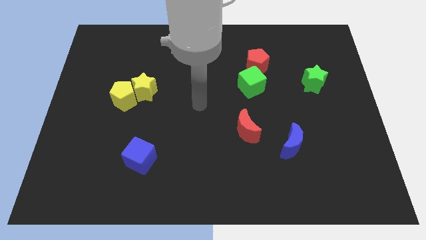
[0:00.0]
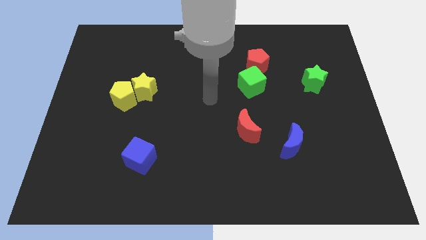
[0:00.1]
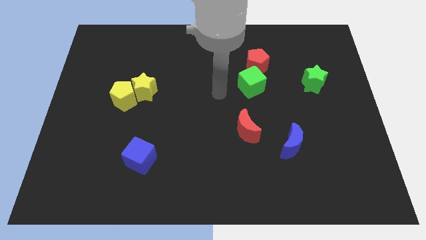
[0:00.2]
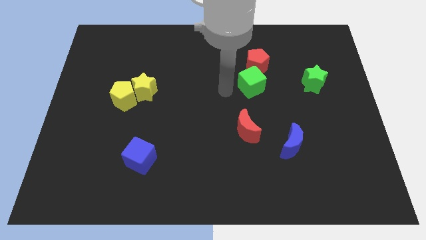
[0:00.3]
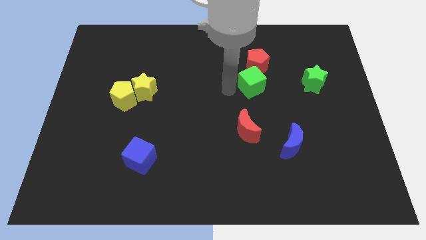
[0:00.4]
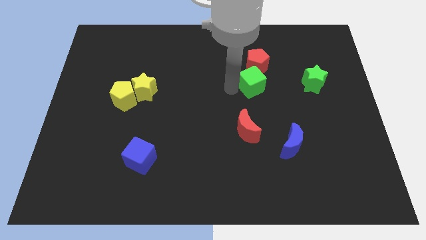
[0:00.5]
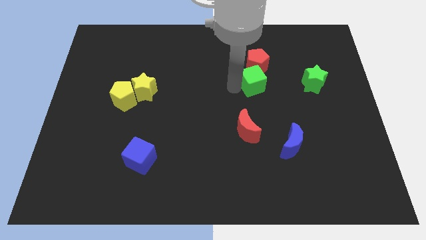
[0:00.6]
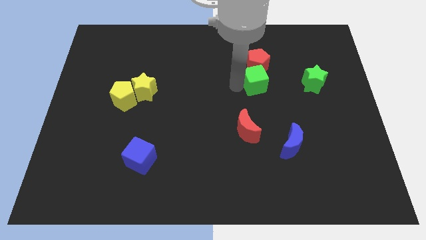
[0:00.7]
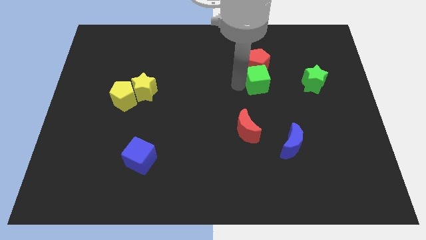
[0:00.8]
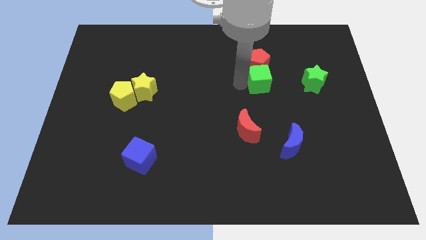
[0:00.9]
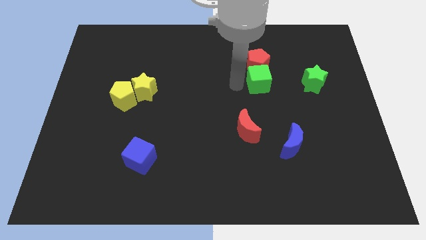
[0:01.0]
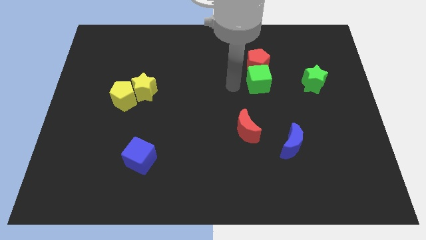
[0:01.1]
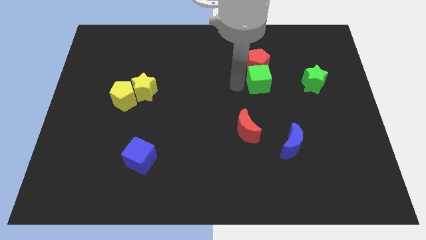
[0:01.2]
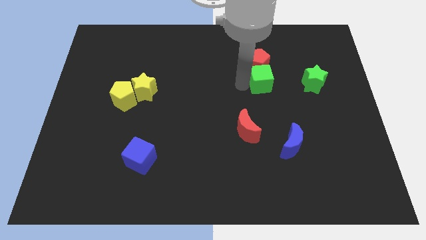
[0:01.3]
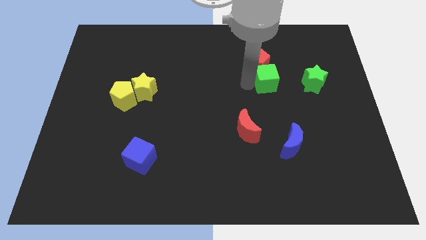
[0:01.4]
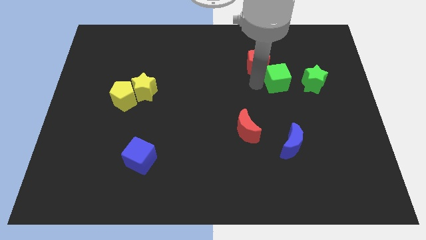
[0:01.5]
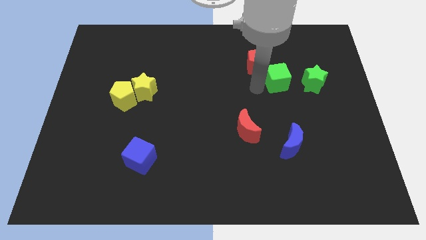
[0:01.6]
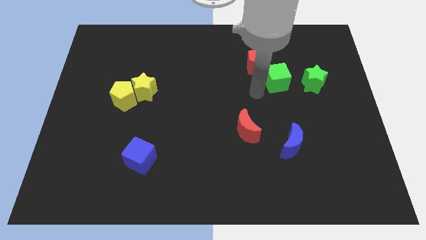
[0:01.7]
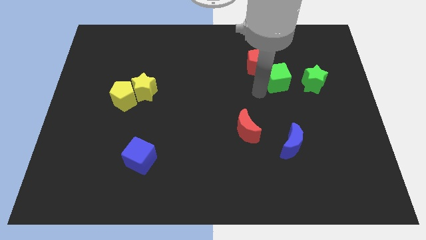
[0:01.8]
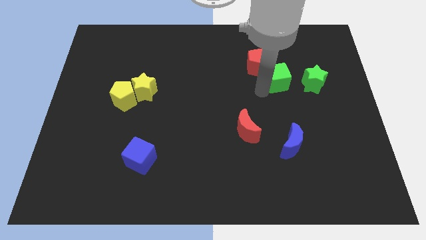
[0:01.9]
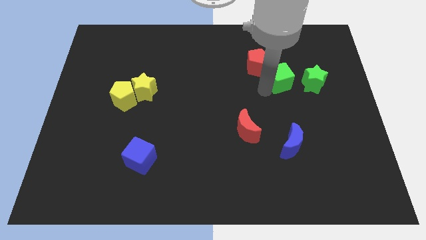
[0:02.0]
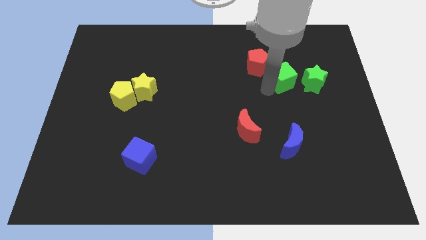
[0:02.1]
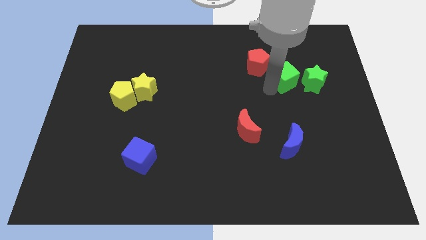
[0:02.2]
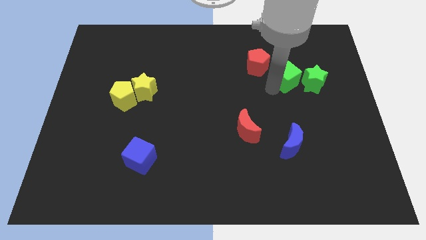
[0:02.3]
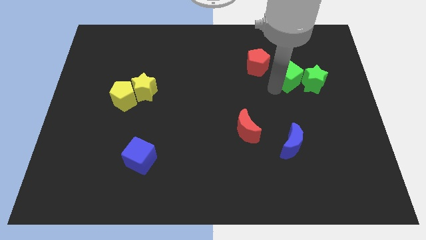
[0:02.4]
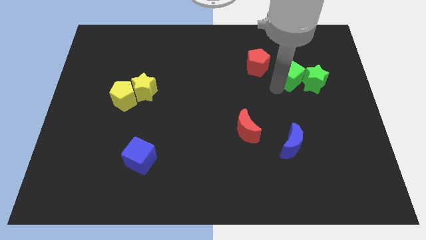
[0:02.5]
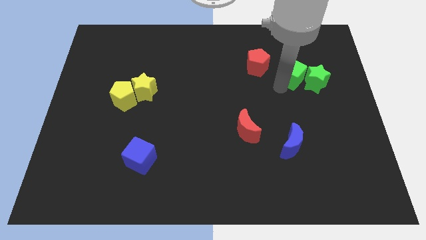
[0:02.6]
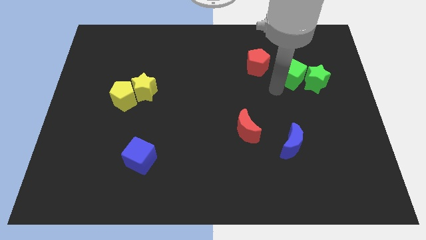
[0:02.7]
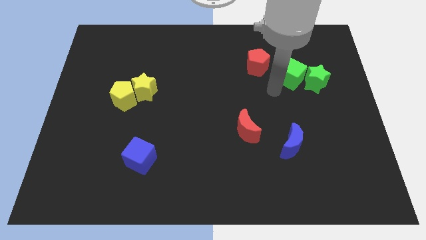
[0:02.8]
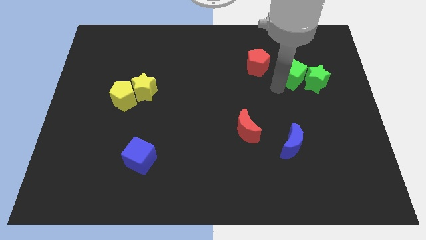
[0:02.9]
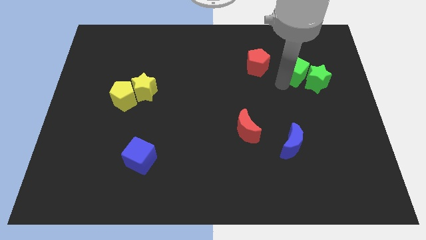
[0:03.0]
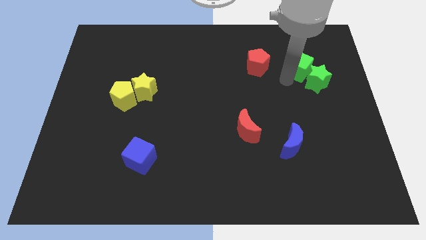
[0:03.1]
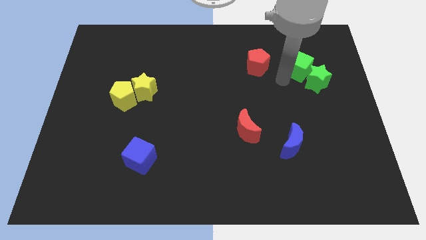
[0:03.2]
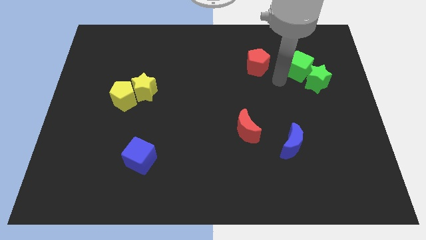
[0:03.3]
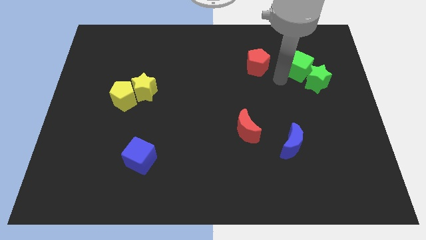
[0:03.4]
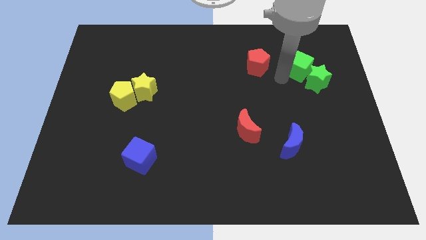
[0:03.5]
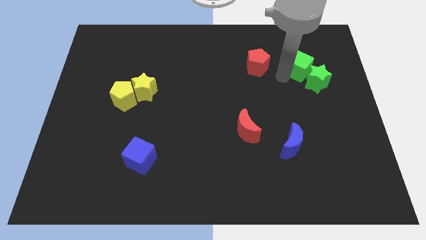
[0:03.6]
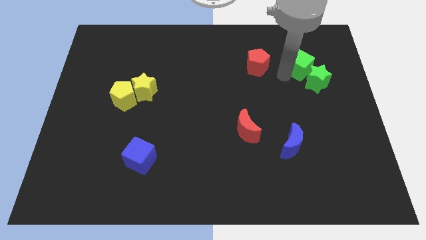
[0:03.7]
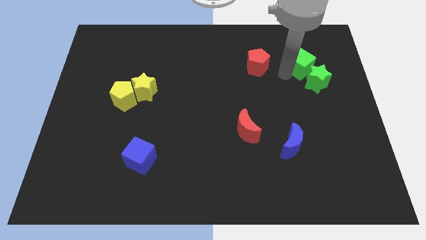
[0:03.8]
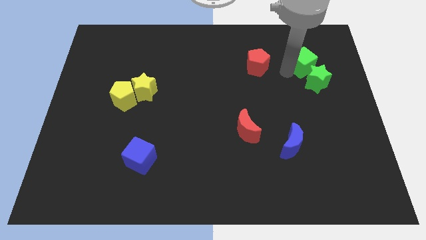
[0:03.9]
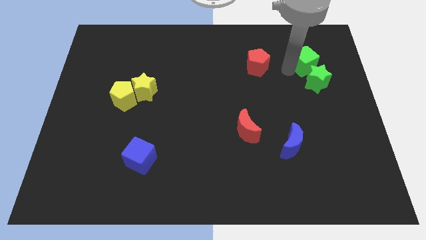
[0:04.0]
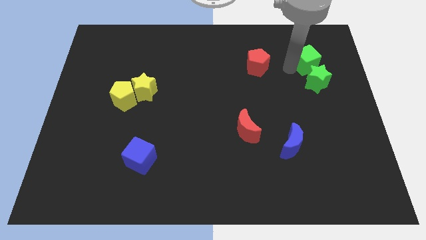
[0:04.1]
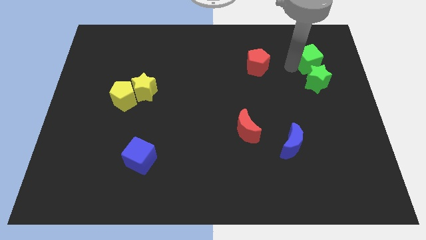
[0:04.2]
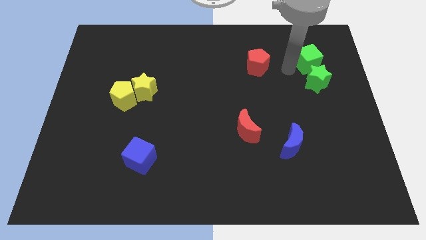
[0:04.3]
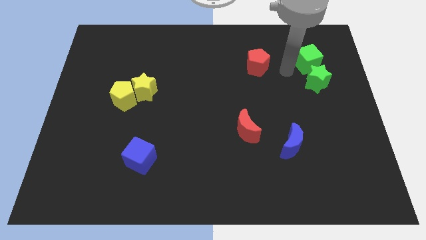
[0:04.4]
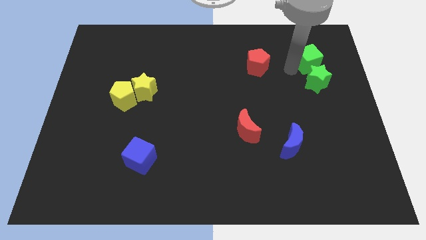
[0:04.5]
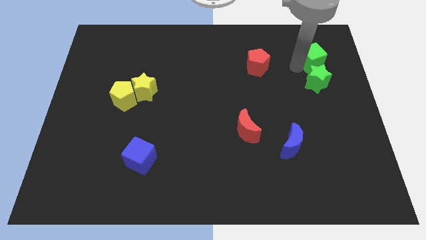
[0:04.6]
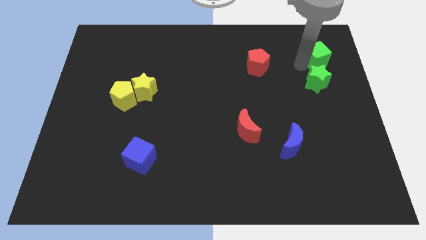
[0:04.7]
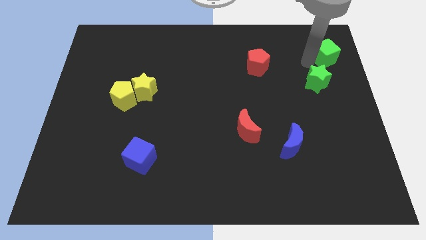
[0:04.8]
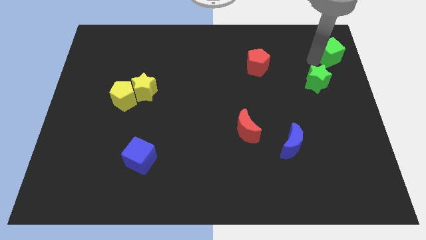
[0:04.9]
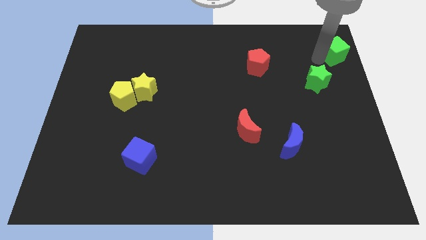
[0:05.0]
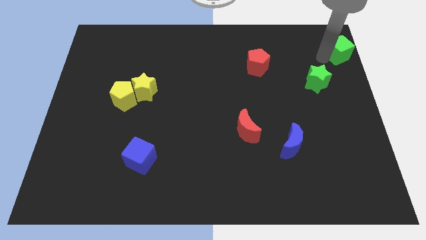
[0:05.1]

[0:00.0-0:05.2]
put the green cube to the top right

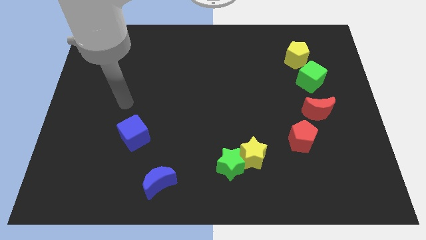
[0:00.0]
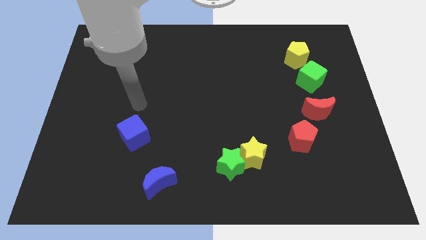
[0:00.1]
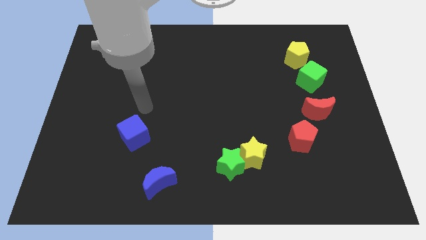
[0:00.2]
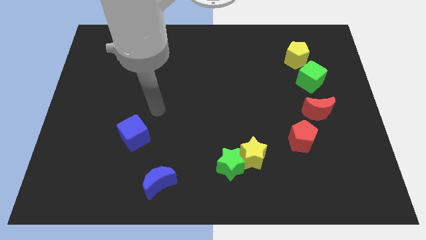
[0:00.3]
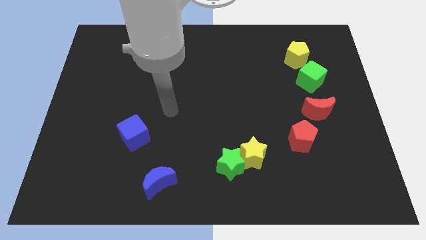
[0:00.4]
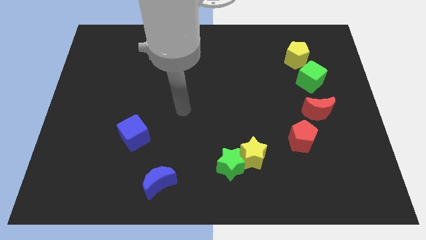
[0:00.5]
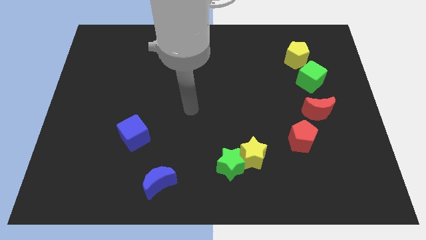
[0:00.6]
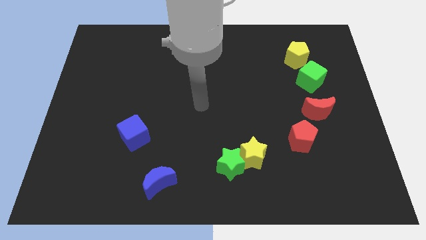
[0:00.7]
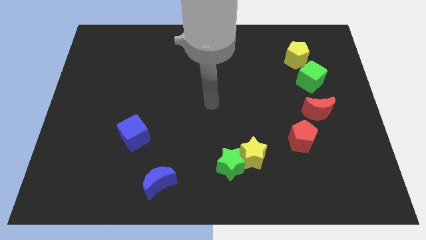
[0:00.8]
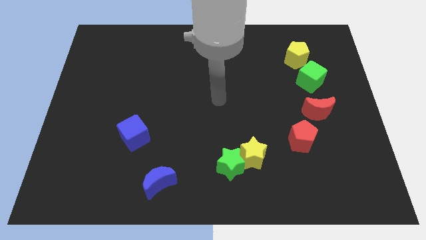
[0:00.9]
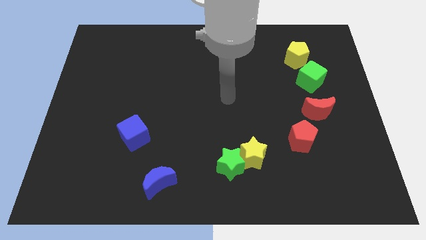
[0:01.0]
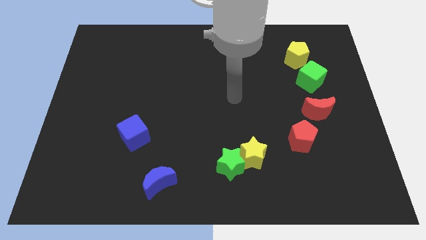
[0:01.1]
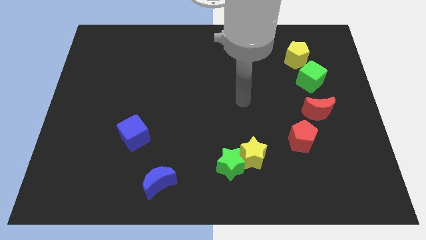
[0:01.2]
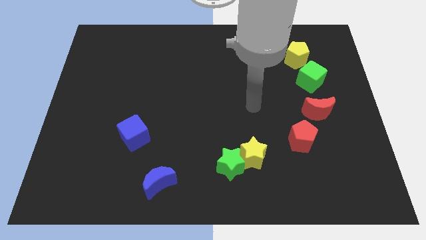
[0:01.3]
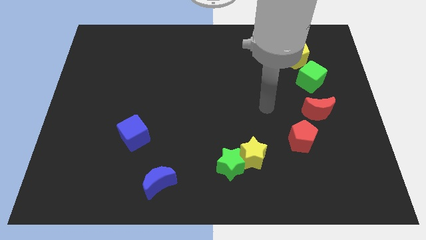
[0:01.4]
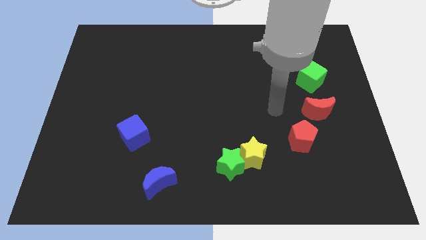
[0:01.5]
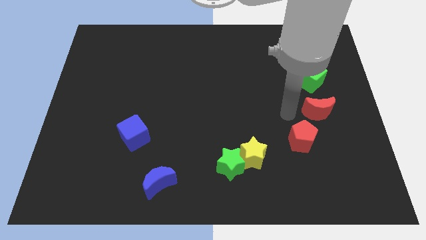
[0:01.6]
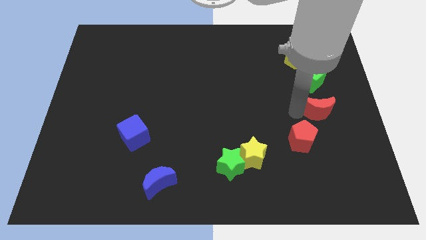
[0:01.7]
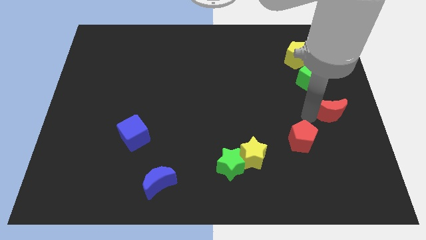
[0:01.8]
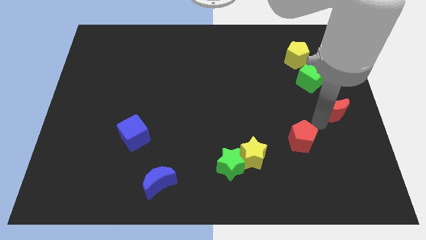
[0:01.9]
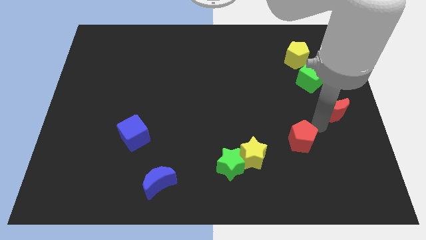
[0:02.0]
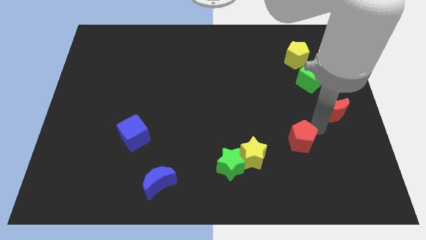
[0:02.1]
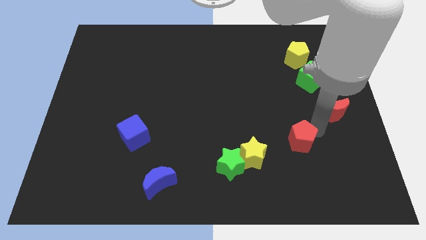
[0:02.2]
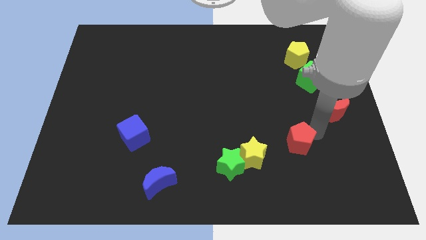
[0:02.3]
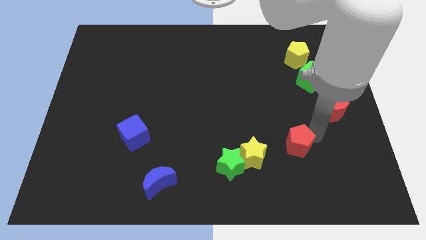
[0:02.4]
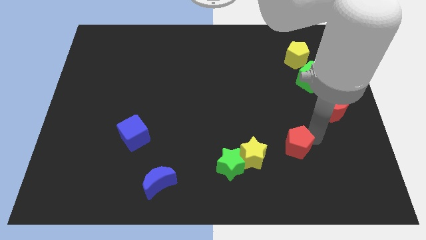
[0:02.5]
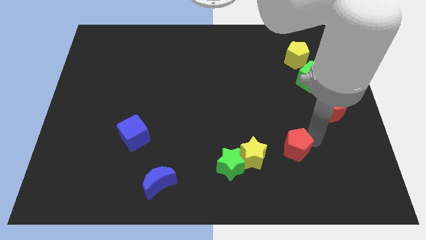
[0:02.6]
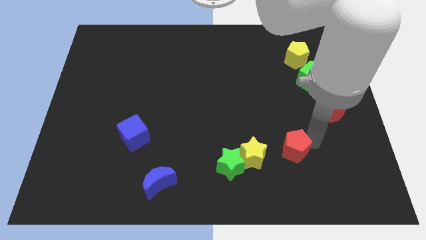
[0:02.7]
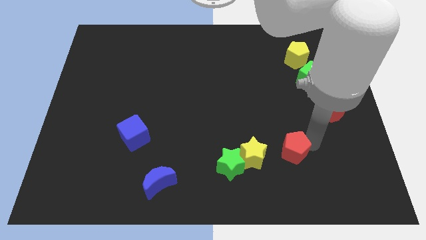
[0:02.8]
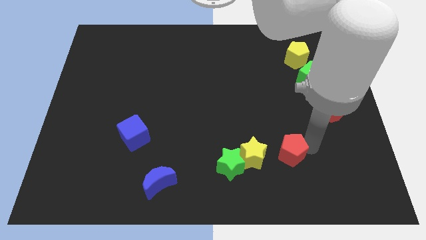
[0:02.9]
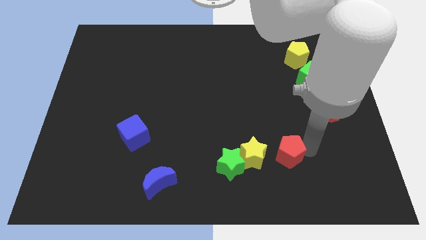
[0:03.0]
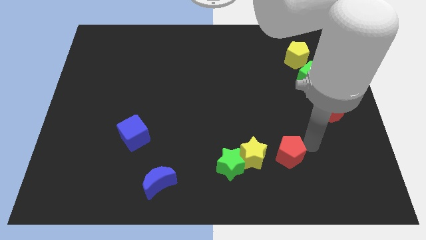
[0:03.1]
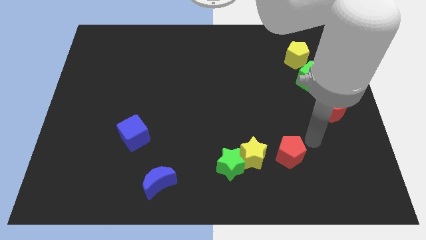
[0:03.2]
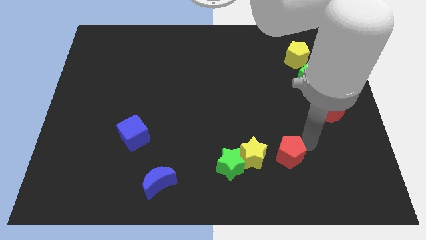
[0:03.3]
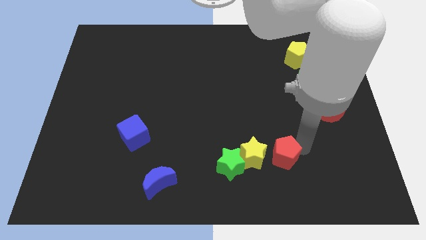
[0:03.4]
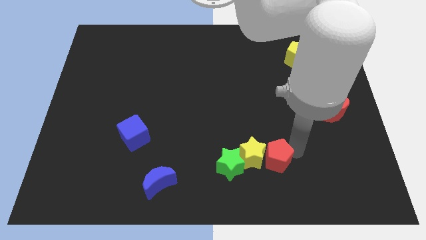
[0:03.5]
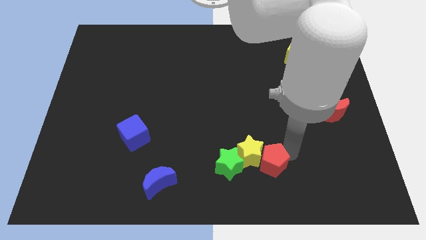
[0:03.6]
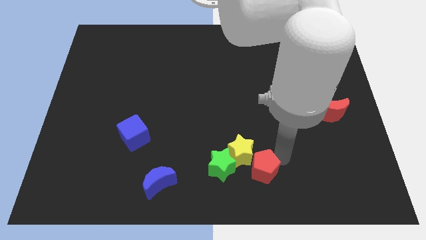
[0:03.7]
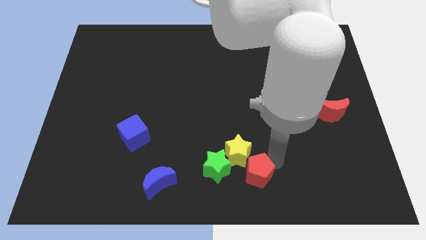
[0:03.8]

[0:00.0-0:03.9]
move the red pentagon to the bottom
